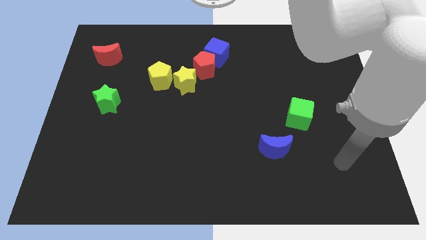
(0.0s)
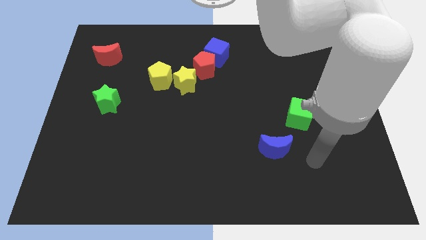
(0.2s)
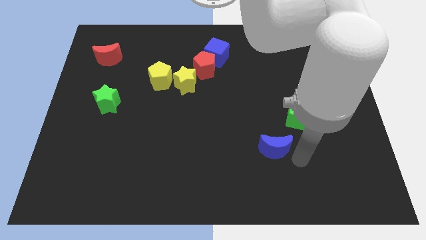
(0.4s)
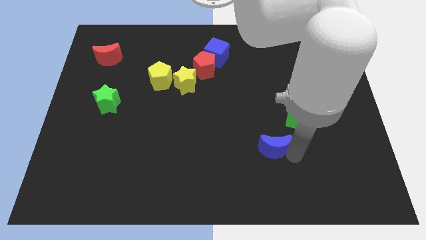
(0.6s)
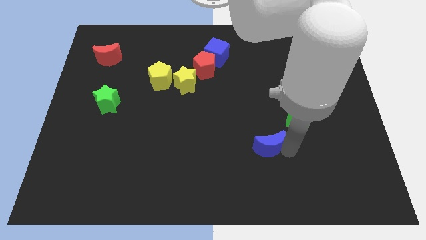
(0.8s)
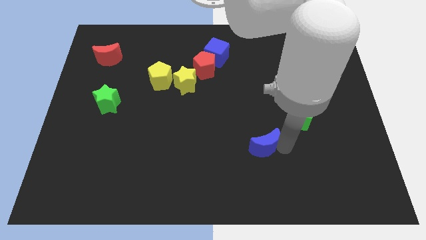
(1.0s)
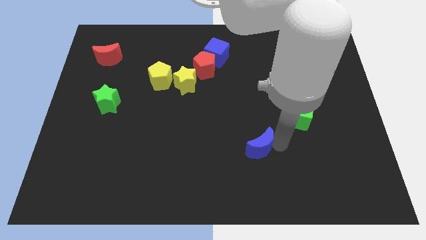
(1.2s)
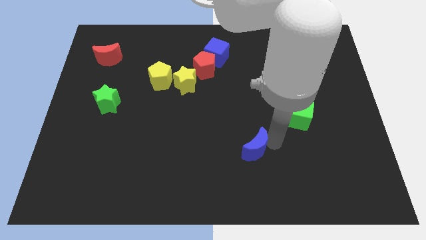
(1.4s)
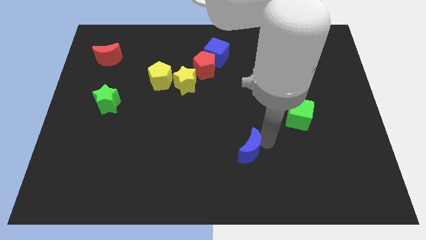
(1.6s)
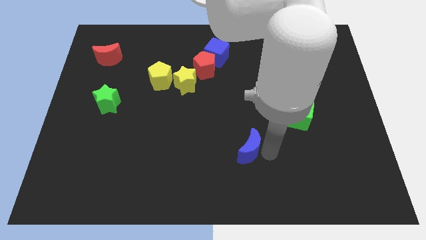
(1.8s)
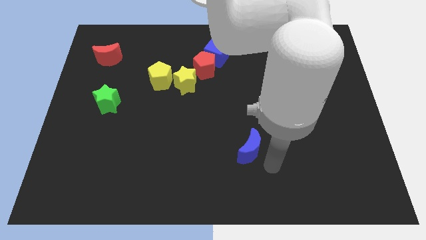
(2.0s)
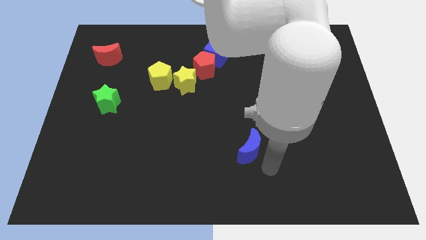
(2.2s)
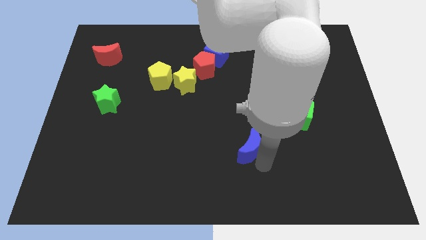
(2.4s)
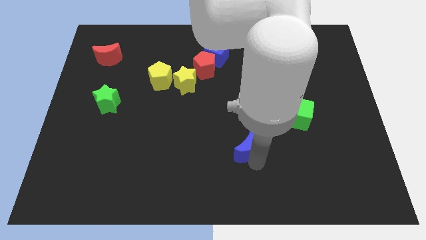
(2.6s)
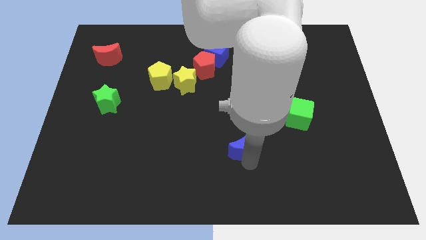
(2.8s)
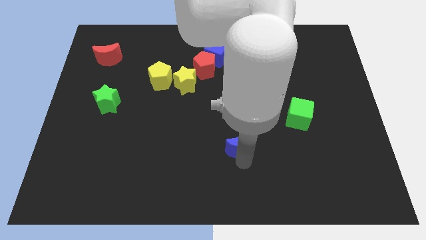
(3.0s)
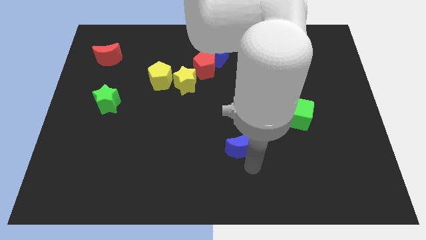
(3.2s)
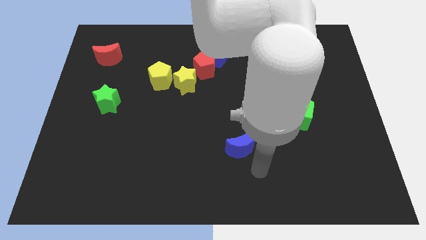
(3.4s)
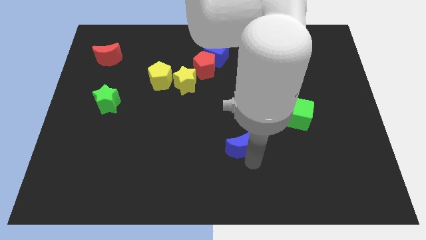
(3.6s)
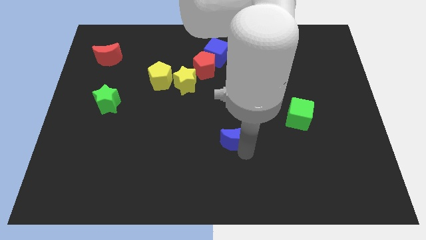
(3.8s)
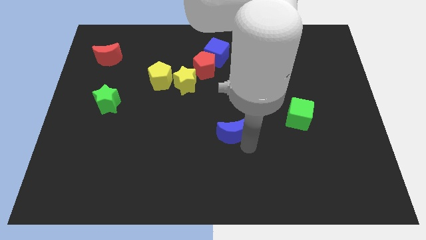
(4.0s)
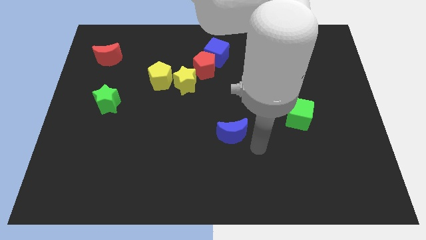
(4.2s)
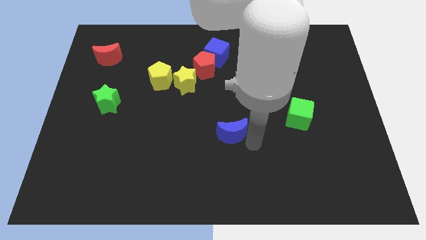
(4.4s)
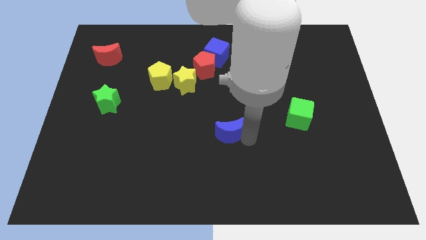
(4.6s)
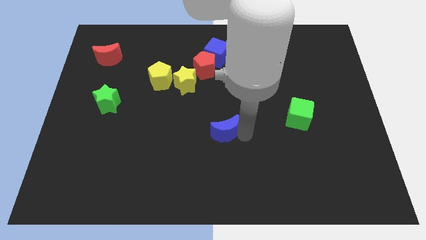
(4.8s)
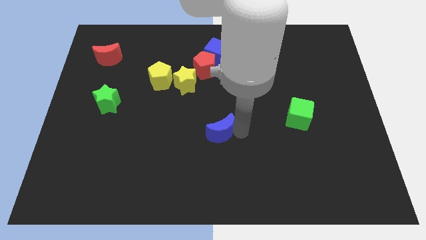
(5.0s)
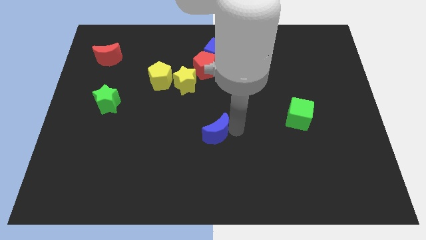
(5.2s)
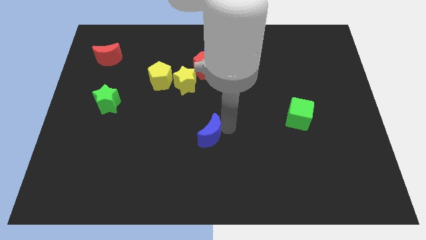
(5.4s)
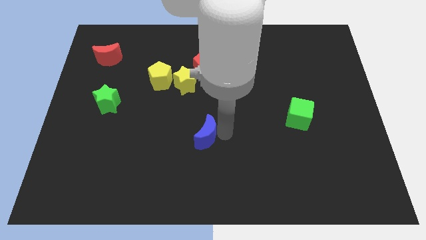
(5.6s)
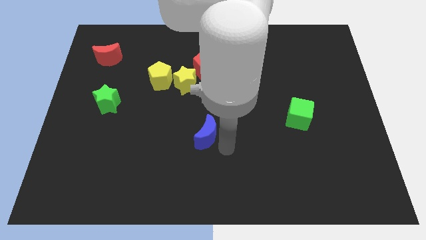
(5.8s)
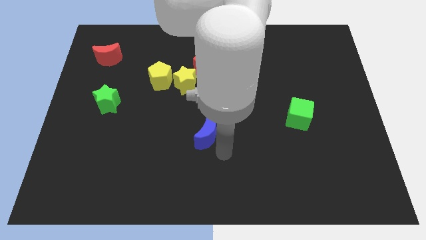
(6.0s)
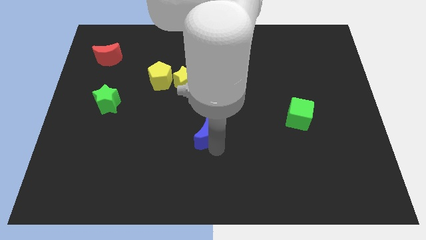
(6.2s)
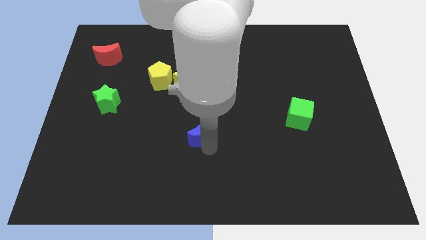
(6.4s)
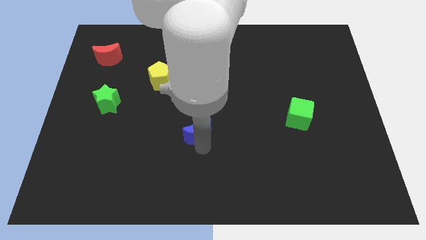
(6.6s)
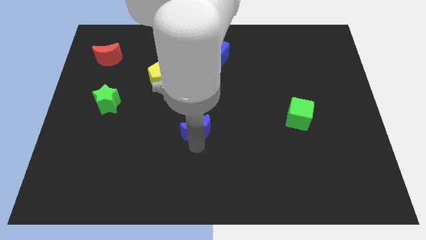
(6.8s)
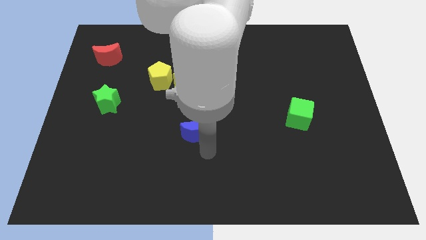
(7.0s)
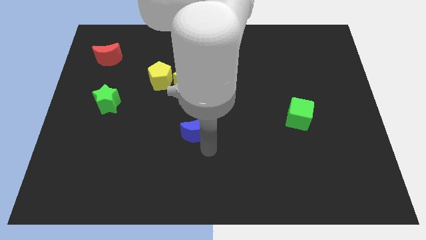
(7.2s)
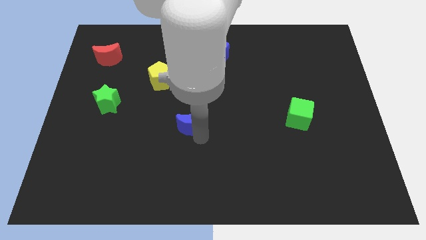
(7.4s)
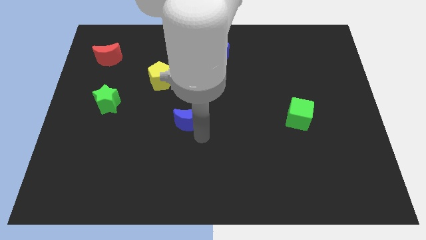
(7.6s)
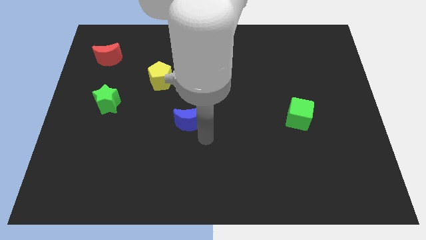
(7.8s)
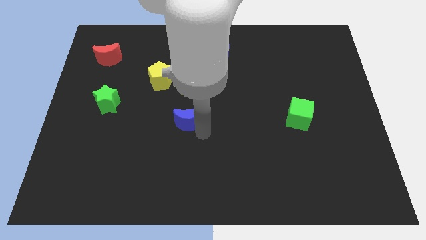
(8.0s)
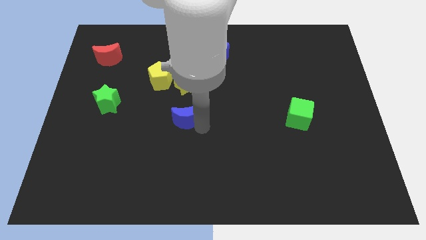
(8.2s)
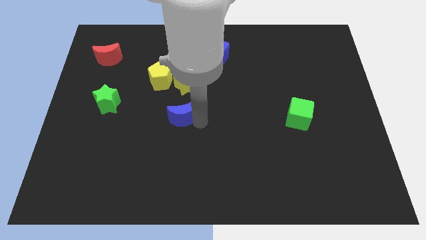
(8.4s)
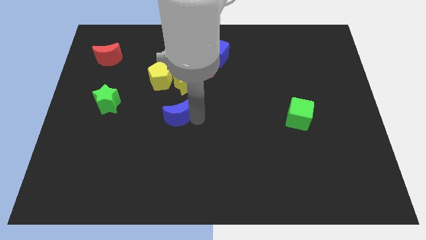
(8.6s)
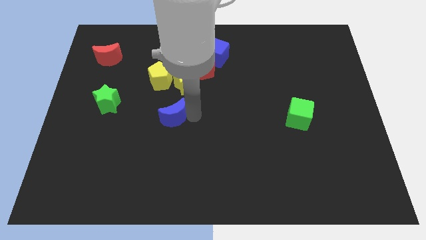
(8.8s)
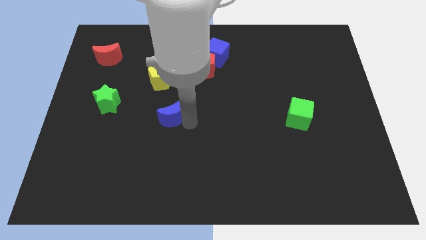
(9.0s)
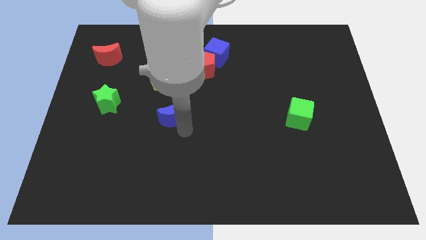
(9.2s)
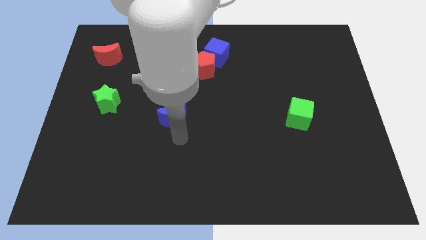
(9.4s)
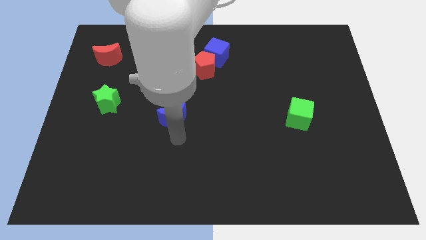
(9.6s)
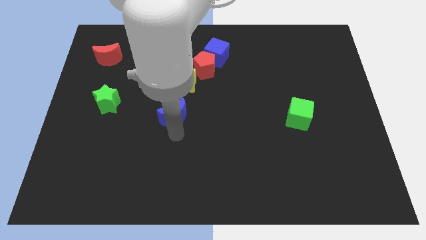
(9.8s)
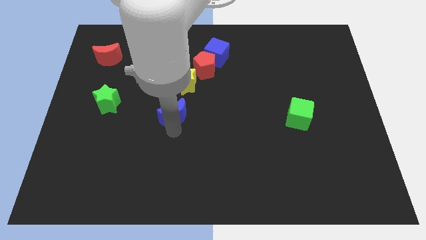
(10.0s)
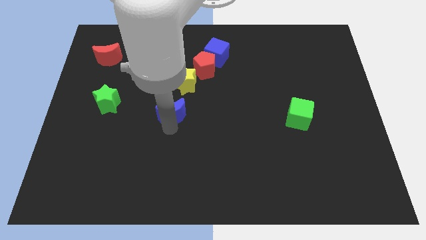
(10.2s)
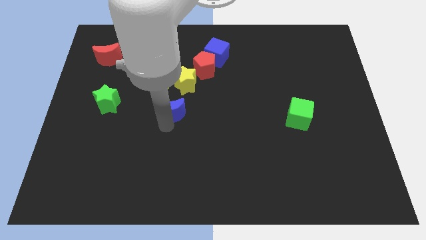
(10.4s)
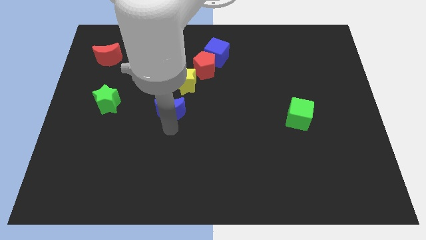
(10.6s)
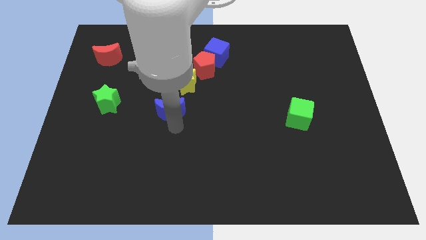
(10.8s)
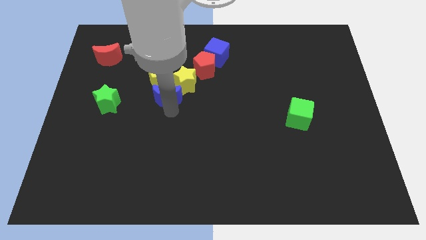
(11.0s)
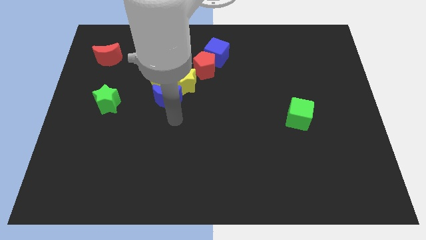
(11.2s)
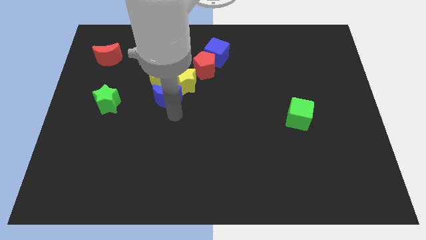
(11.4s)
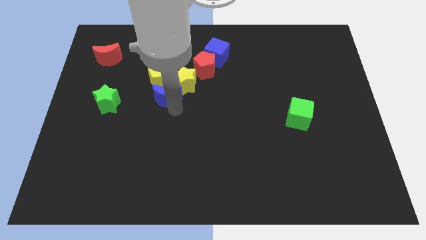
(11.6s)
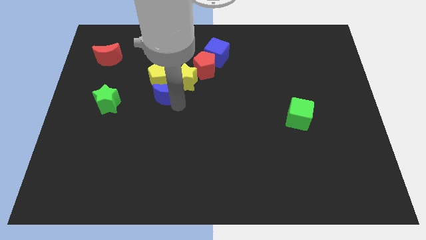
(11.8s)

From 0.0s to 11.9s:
push the blue moon next to the yellow pentagon

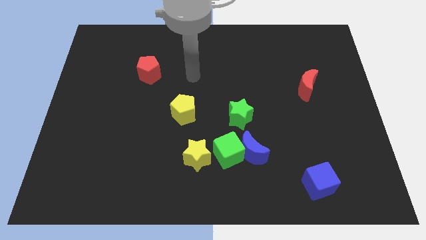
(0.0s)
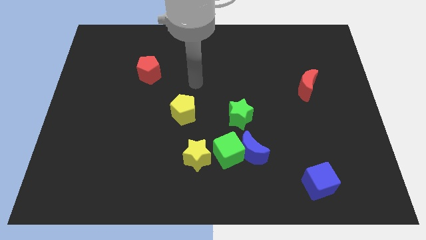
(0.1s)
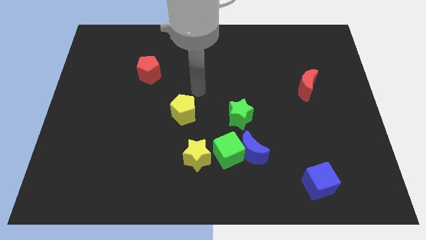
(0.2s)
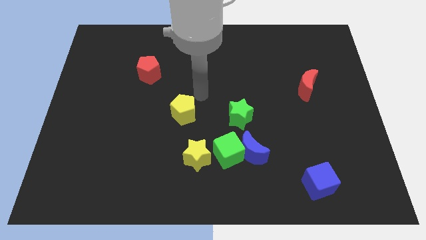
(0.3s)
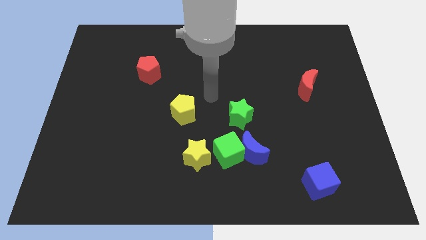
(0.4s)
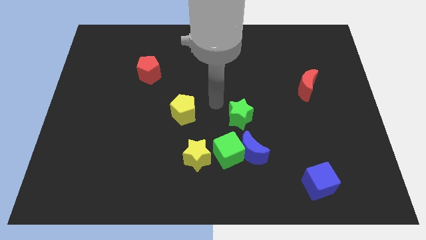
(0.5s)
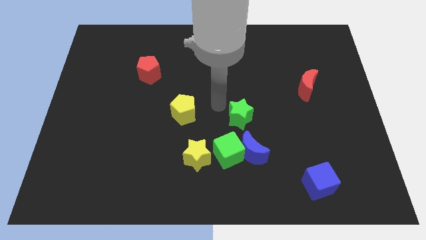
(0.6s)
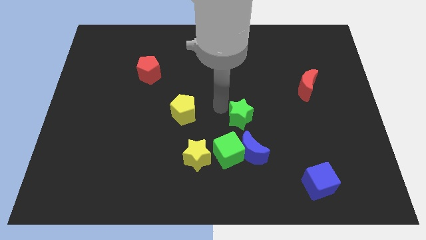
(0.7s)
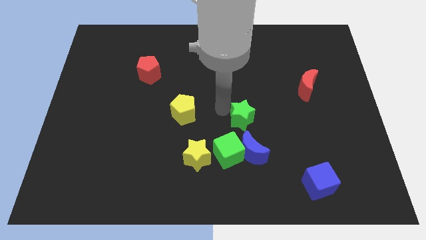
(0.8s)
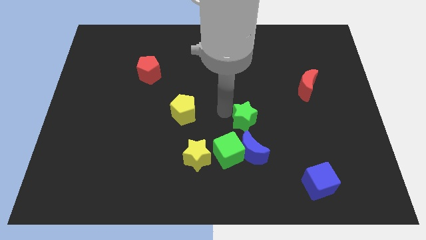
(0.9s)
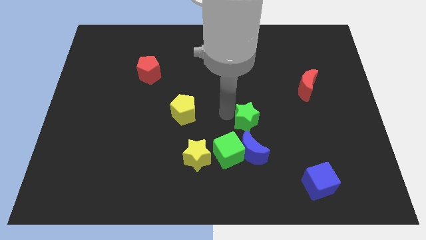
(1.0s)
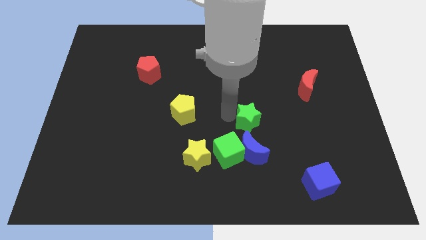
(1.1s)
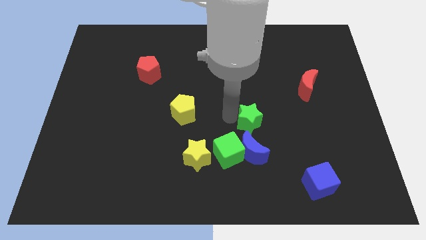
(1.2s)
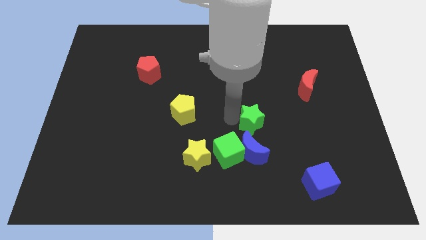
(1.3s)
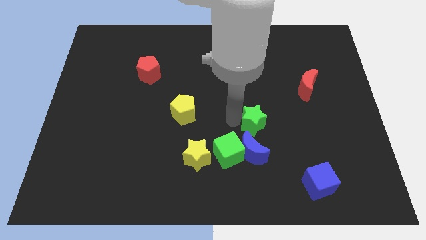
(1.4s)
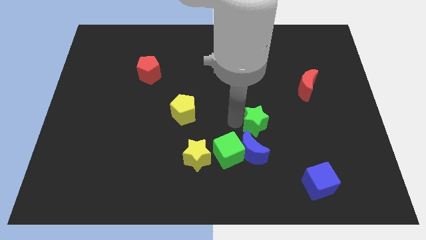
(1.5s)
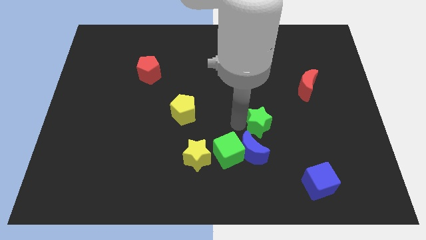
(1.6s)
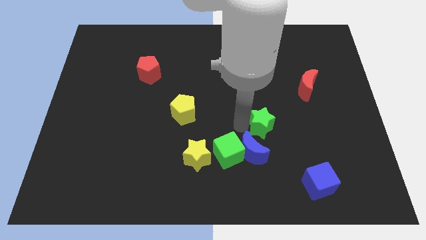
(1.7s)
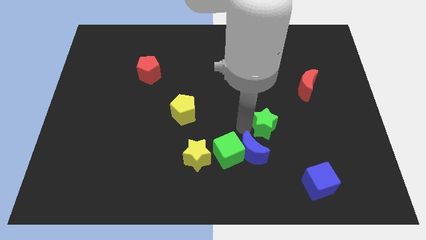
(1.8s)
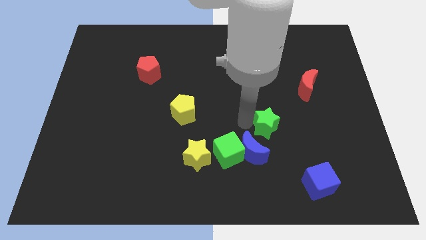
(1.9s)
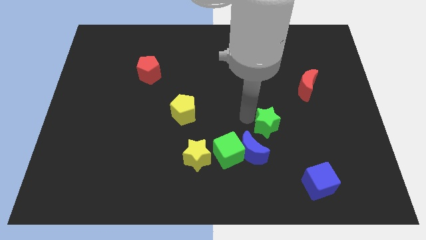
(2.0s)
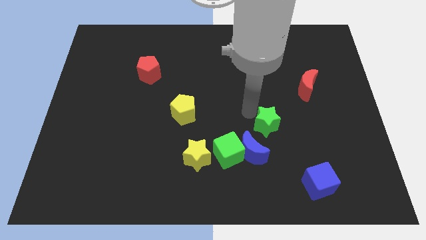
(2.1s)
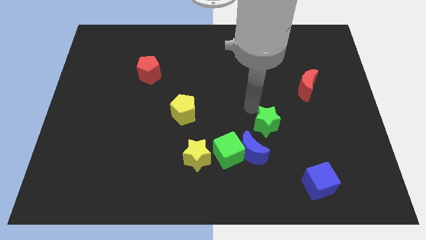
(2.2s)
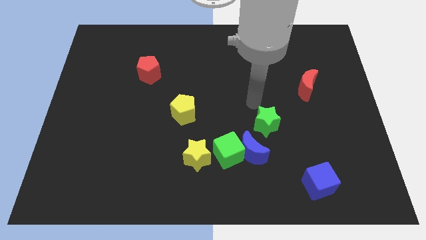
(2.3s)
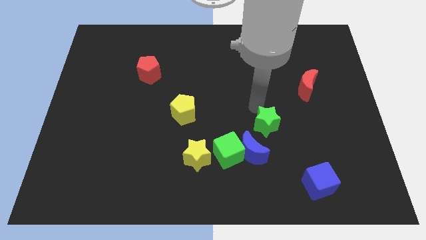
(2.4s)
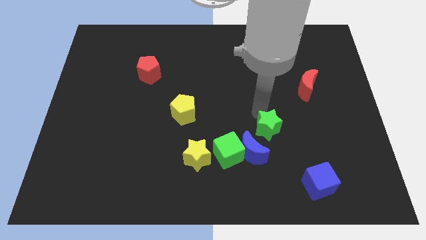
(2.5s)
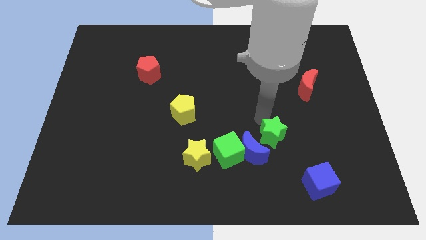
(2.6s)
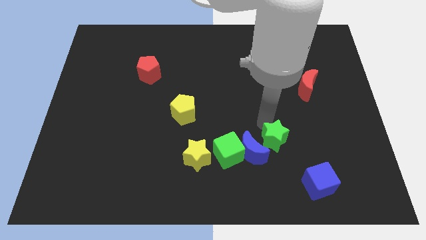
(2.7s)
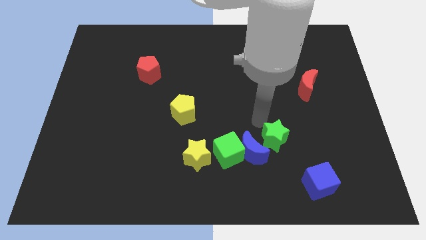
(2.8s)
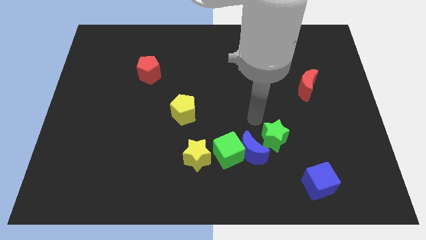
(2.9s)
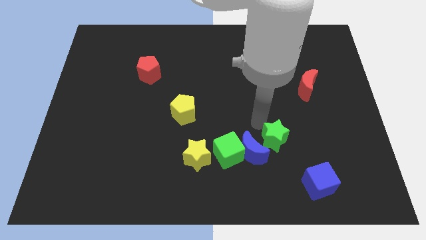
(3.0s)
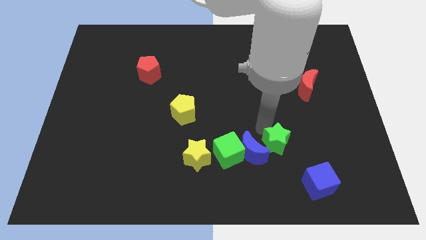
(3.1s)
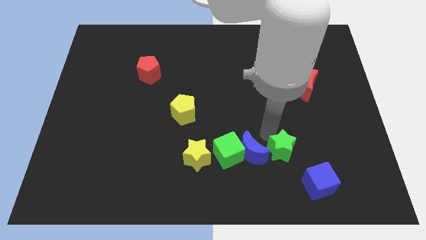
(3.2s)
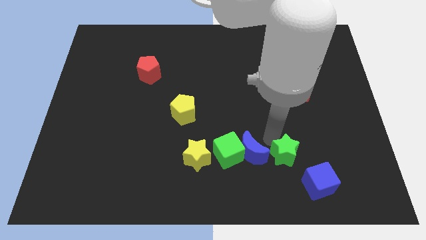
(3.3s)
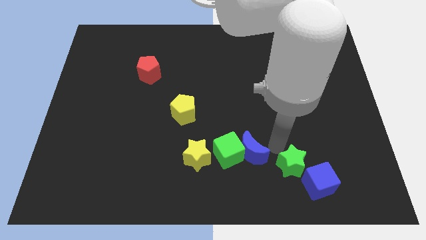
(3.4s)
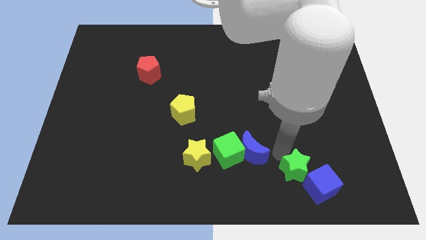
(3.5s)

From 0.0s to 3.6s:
move the green star next to the blue cube
